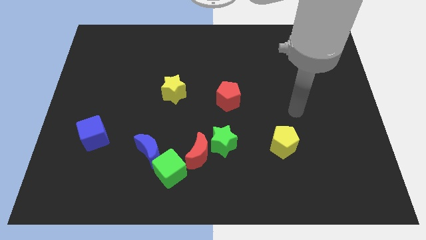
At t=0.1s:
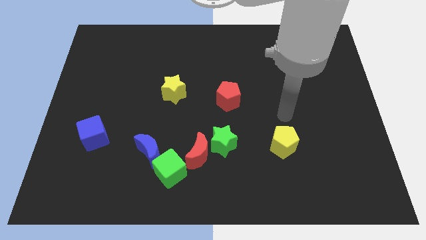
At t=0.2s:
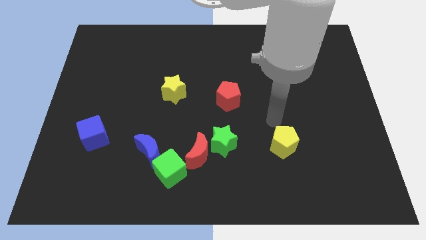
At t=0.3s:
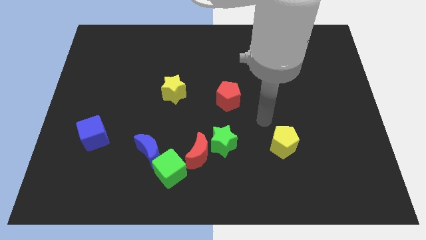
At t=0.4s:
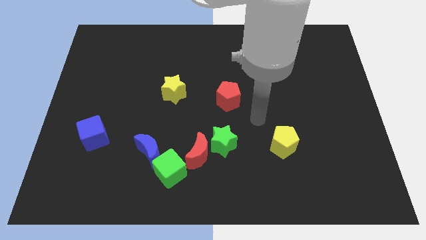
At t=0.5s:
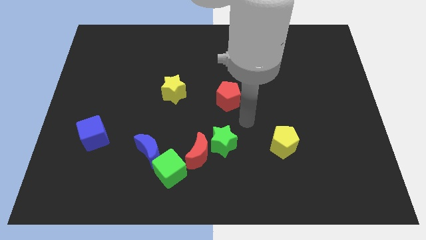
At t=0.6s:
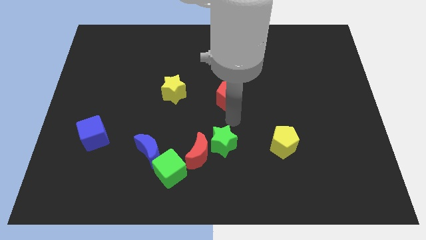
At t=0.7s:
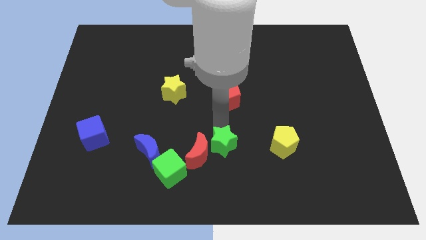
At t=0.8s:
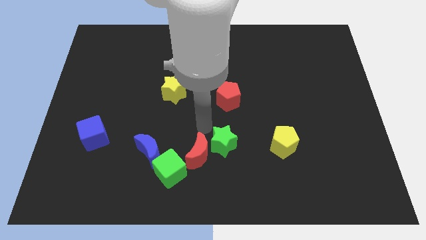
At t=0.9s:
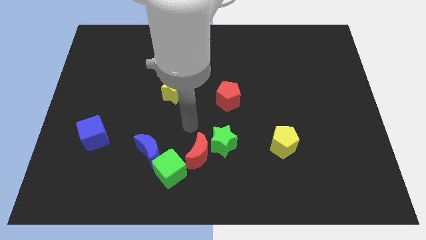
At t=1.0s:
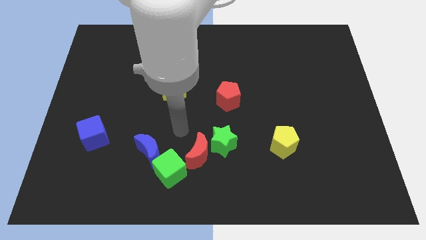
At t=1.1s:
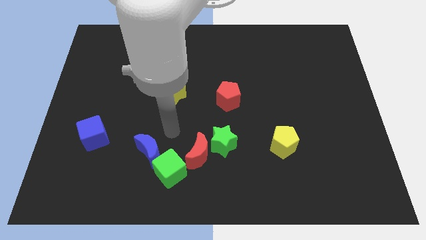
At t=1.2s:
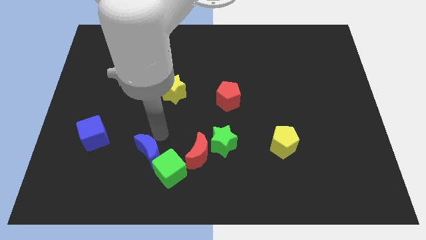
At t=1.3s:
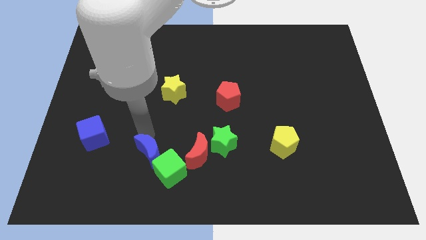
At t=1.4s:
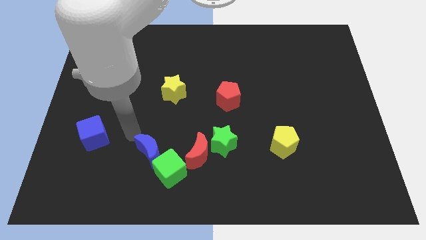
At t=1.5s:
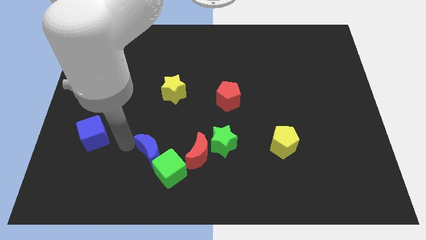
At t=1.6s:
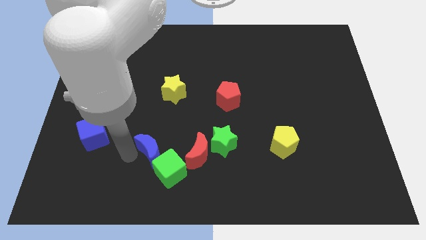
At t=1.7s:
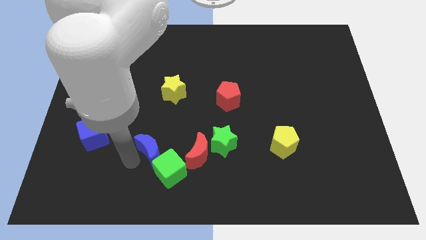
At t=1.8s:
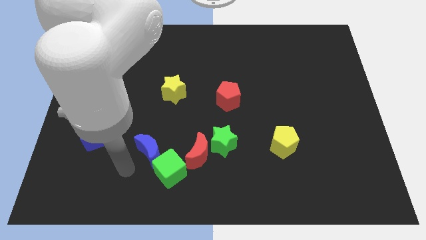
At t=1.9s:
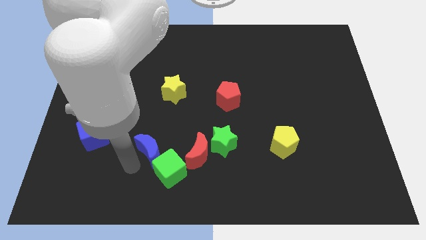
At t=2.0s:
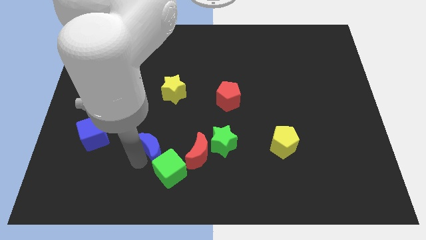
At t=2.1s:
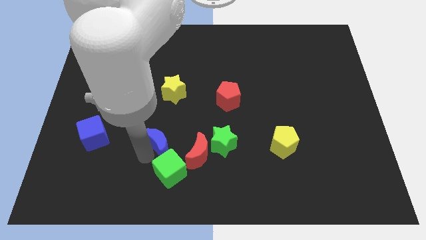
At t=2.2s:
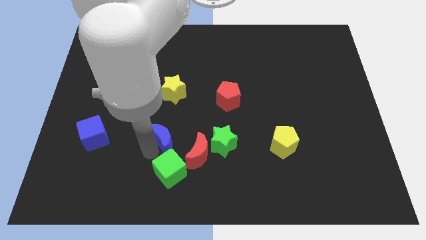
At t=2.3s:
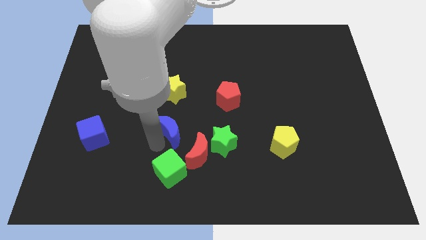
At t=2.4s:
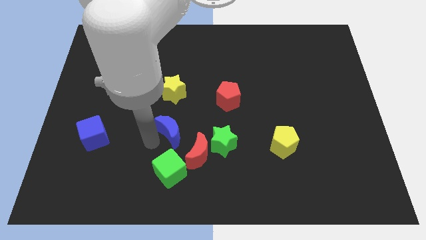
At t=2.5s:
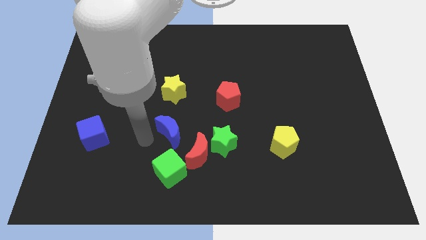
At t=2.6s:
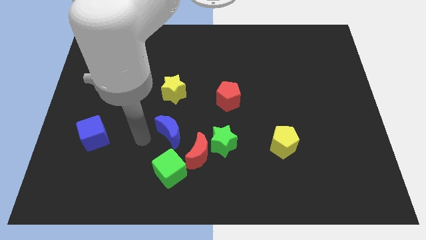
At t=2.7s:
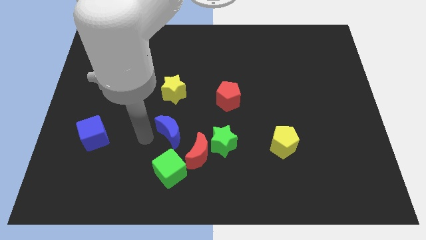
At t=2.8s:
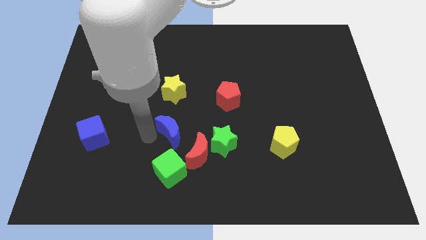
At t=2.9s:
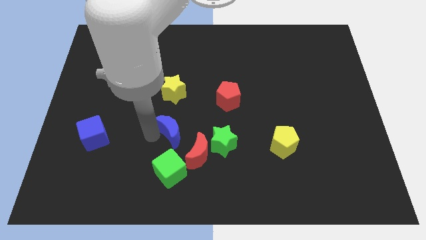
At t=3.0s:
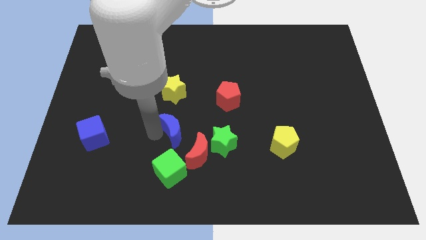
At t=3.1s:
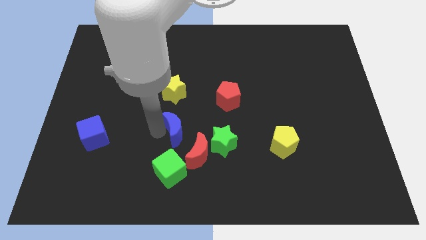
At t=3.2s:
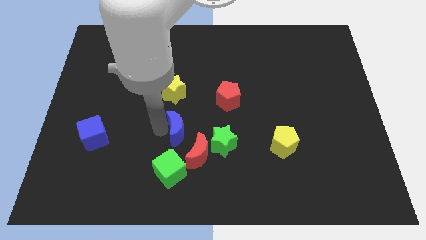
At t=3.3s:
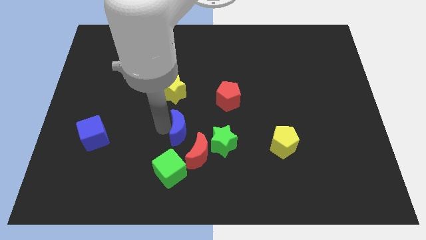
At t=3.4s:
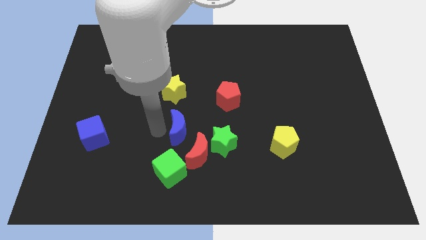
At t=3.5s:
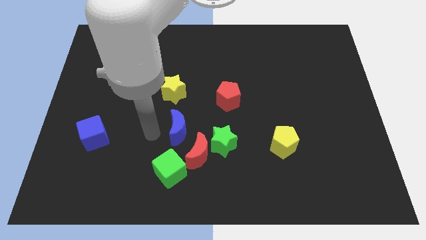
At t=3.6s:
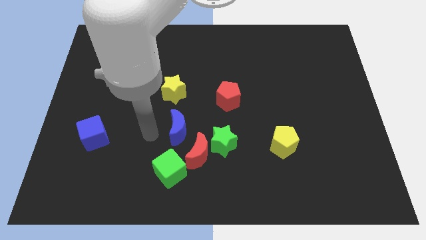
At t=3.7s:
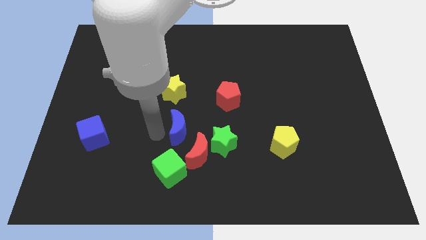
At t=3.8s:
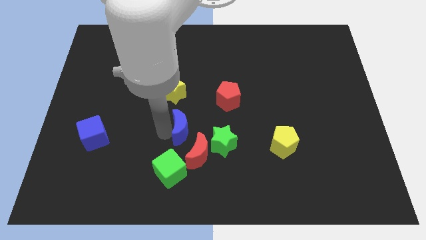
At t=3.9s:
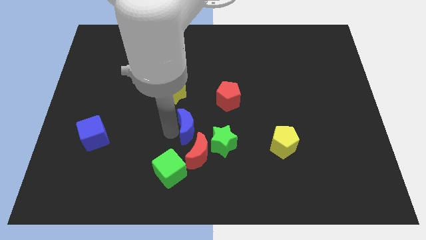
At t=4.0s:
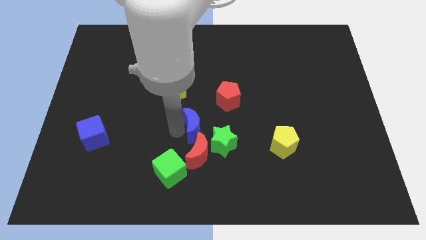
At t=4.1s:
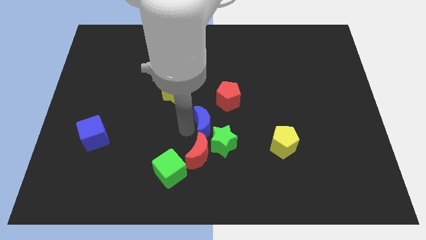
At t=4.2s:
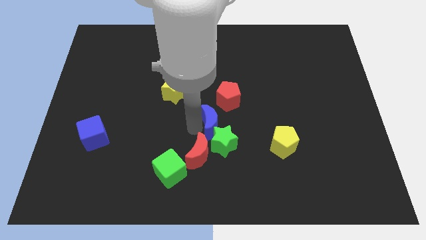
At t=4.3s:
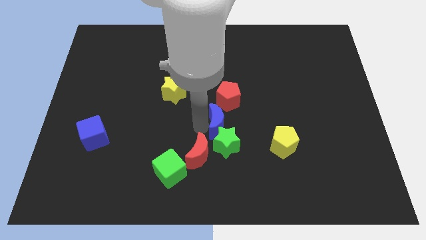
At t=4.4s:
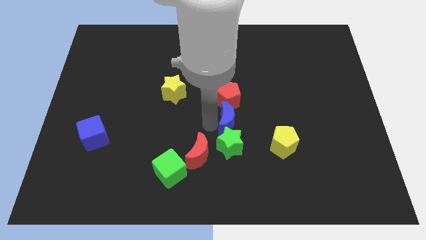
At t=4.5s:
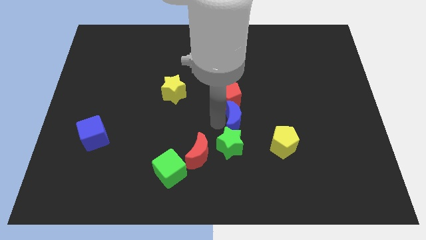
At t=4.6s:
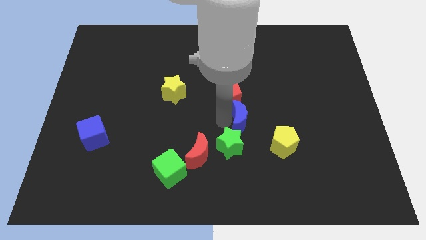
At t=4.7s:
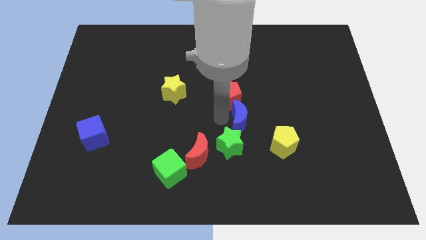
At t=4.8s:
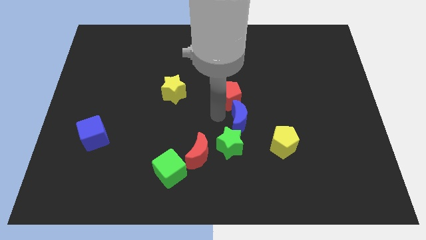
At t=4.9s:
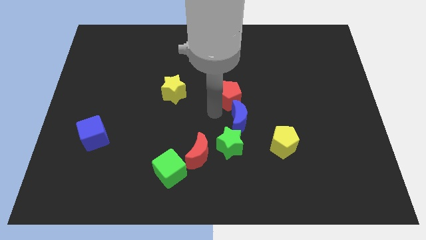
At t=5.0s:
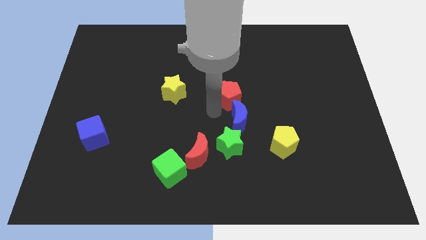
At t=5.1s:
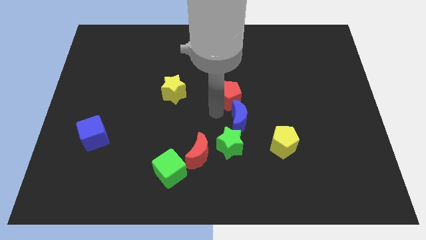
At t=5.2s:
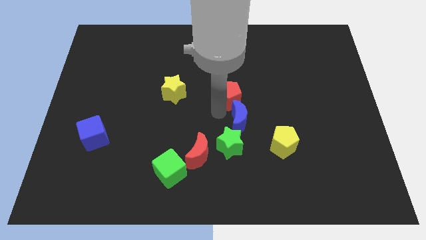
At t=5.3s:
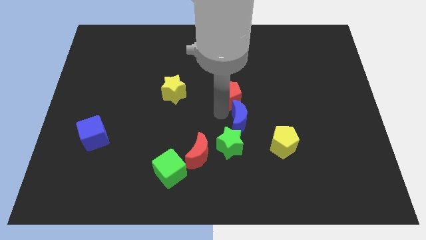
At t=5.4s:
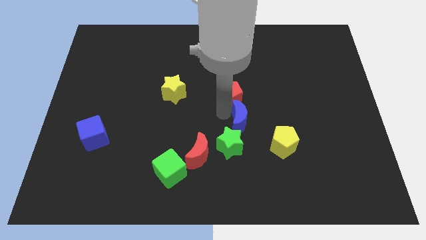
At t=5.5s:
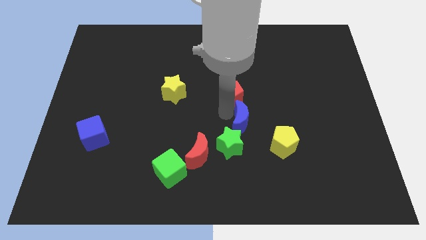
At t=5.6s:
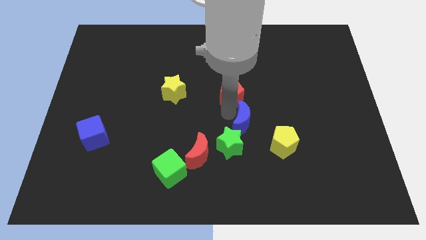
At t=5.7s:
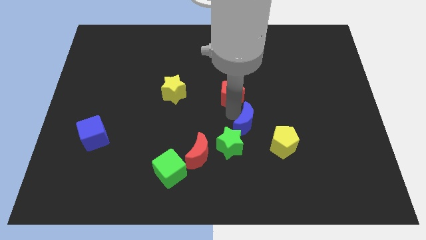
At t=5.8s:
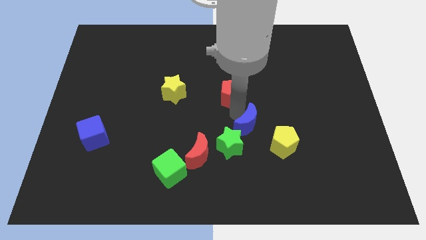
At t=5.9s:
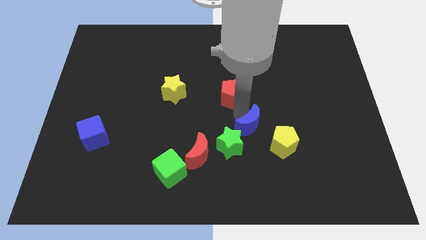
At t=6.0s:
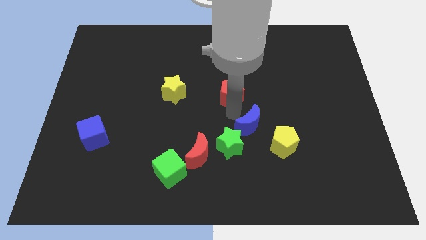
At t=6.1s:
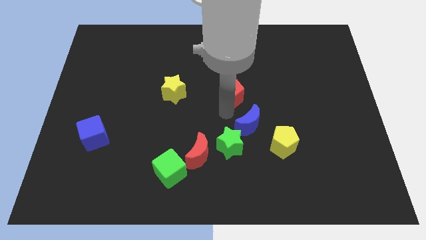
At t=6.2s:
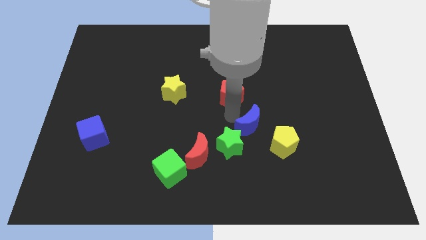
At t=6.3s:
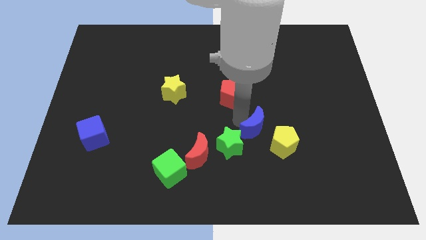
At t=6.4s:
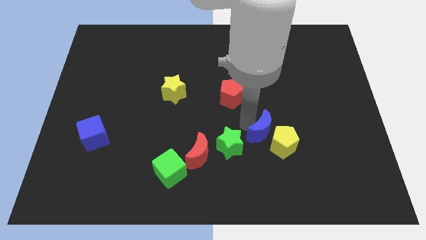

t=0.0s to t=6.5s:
put the blue moon close to the yellow pentagon

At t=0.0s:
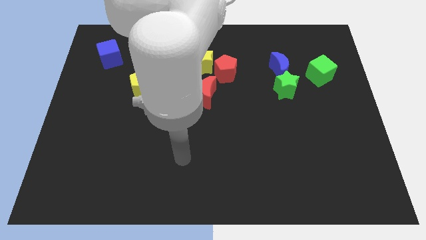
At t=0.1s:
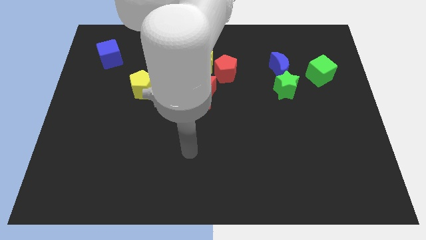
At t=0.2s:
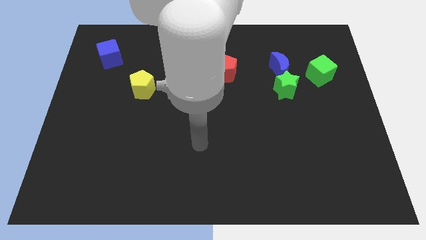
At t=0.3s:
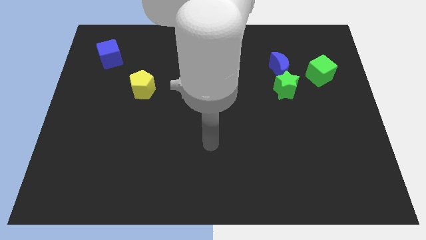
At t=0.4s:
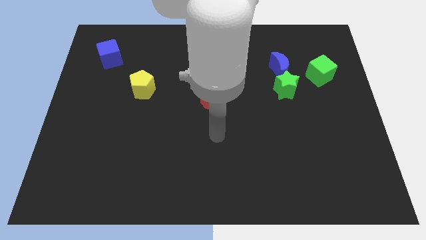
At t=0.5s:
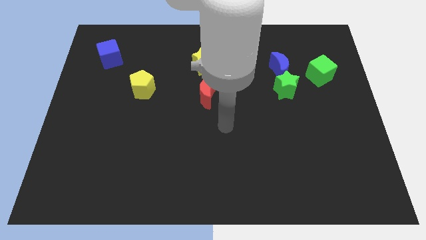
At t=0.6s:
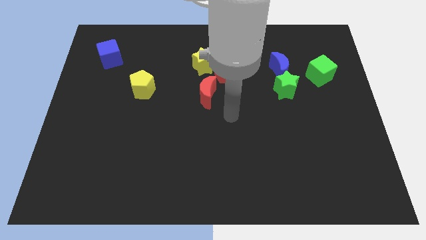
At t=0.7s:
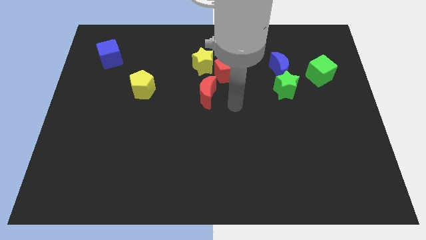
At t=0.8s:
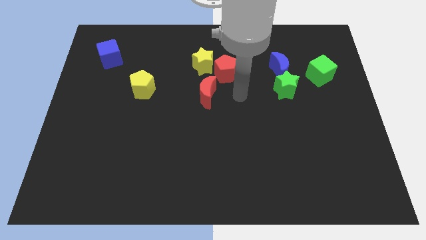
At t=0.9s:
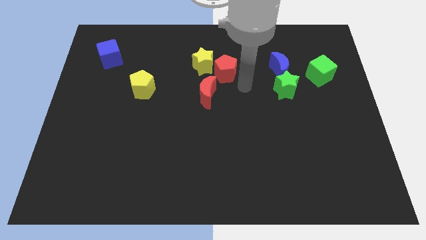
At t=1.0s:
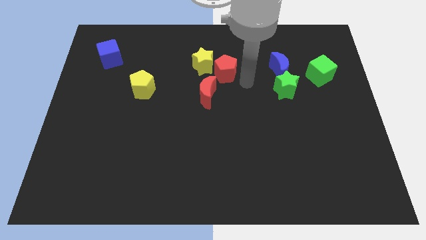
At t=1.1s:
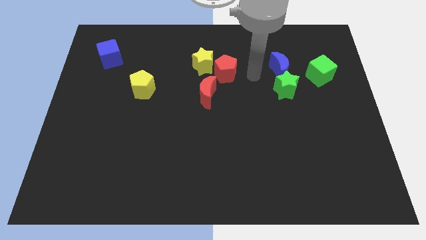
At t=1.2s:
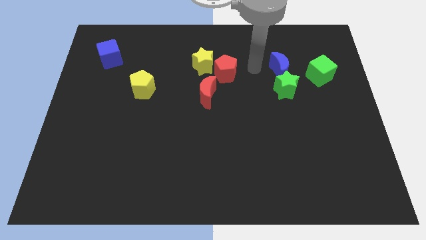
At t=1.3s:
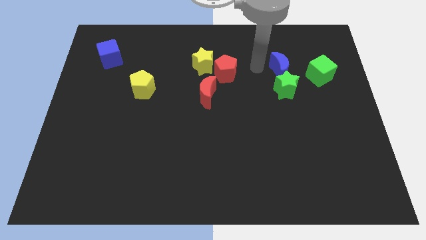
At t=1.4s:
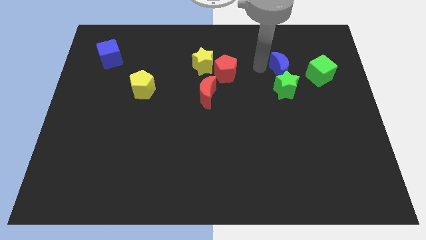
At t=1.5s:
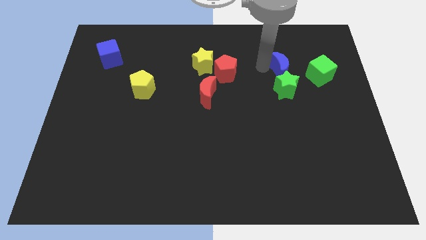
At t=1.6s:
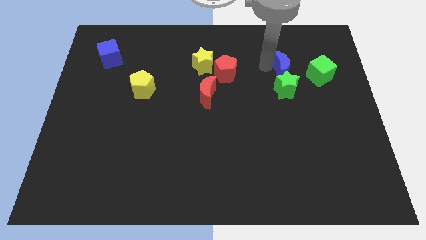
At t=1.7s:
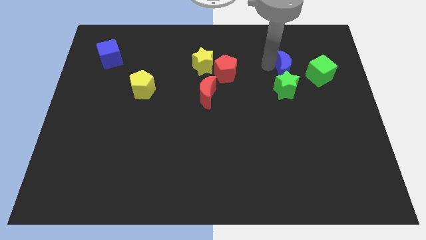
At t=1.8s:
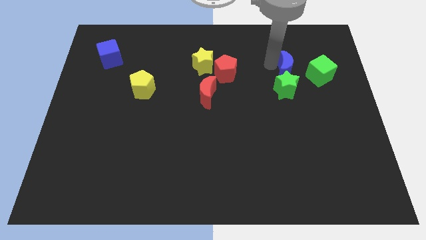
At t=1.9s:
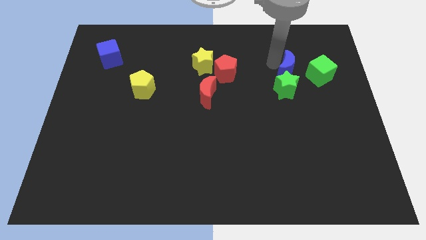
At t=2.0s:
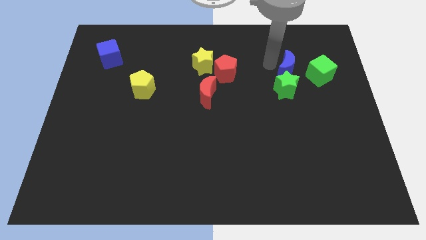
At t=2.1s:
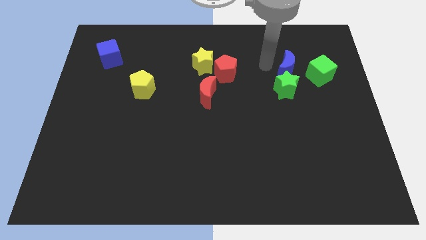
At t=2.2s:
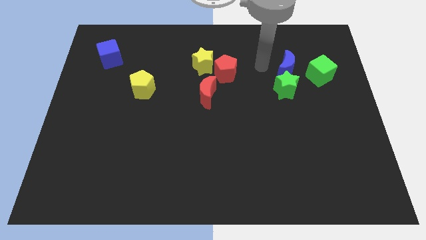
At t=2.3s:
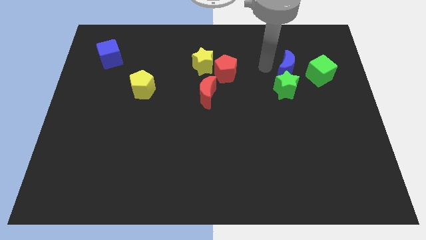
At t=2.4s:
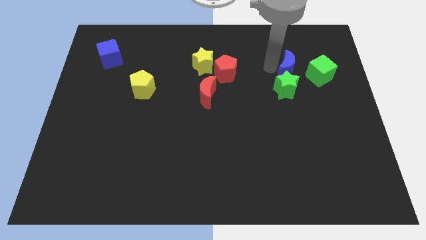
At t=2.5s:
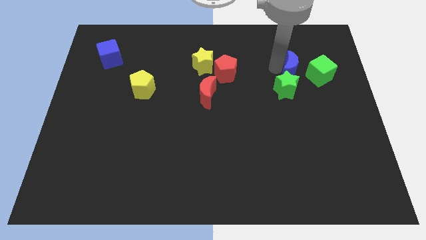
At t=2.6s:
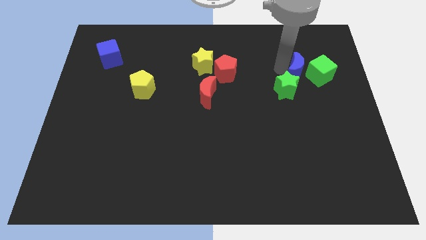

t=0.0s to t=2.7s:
slide the blue moon to the green cube
